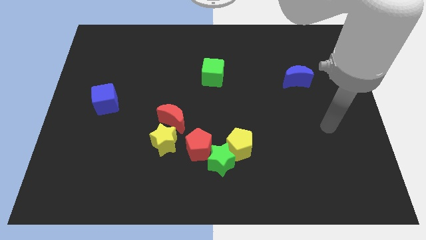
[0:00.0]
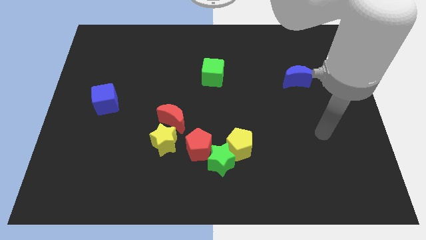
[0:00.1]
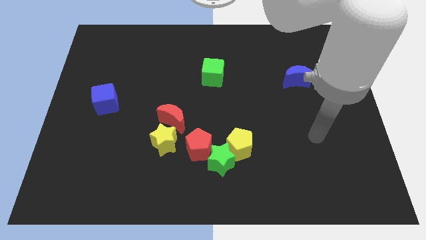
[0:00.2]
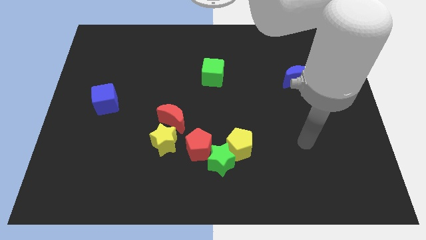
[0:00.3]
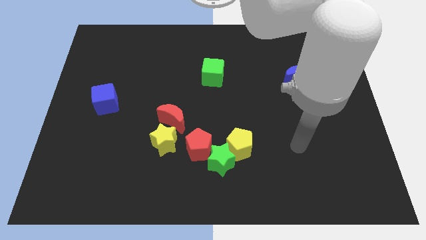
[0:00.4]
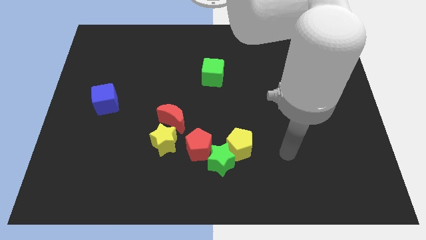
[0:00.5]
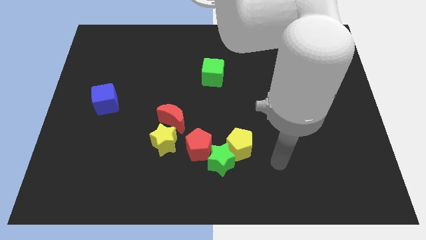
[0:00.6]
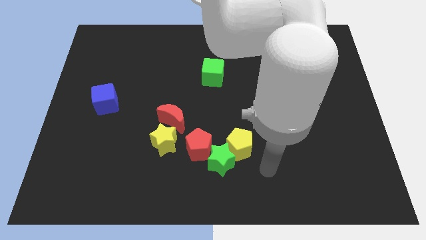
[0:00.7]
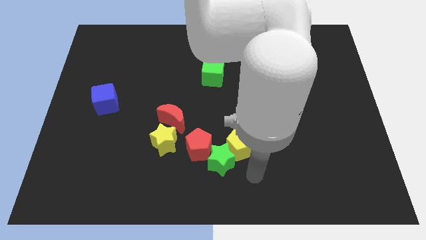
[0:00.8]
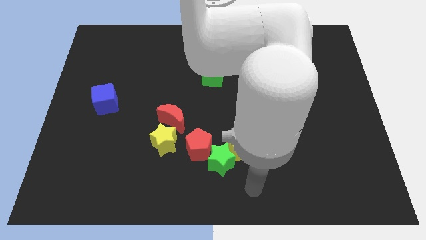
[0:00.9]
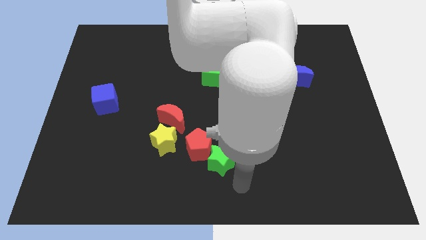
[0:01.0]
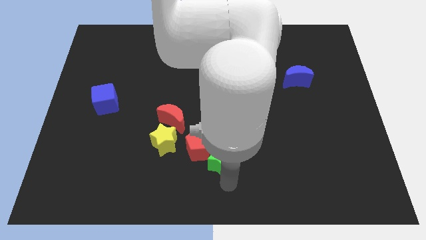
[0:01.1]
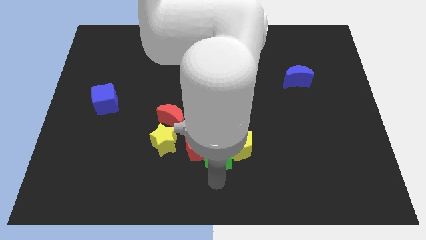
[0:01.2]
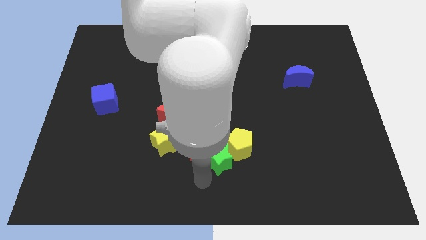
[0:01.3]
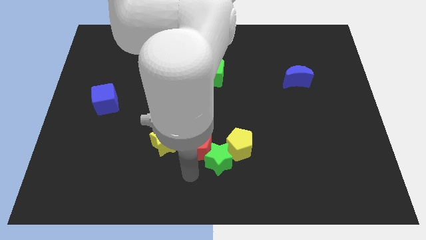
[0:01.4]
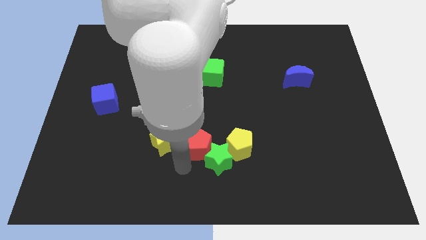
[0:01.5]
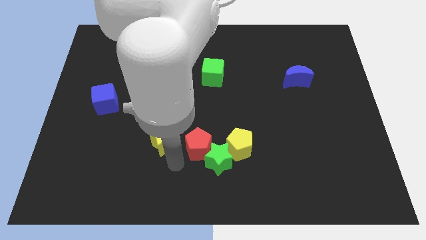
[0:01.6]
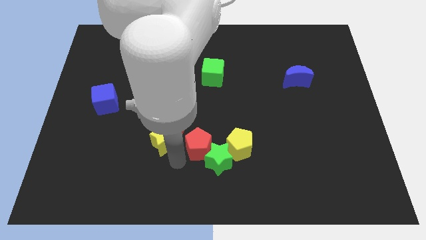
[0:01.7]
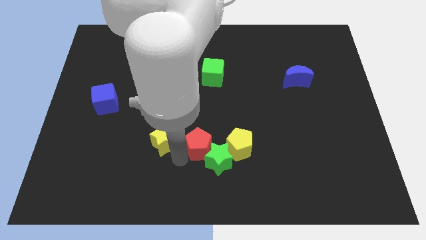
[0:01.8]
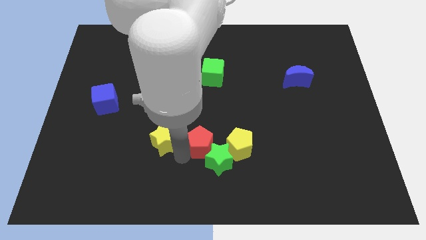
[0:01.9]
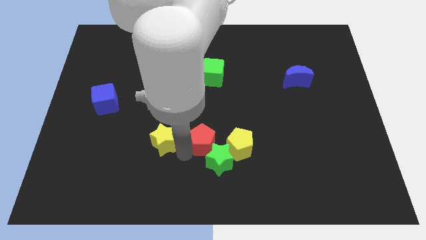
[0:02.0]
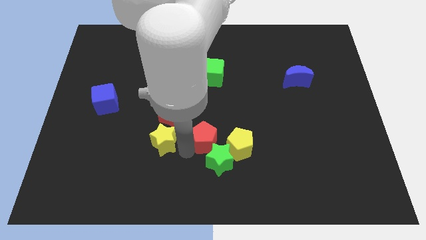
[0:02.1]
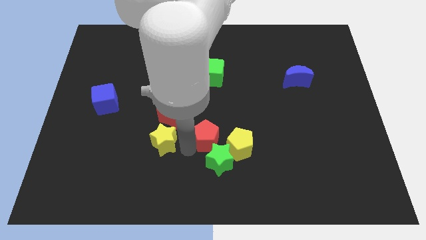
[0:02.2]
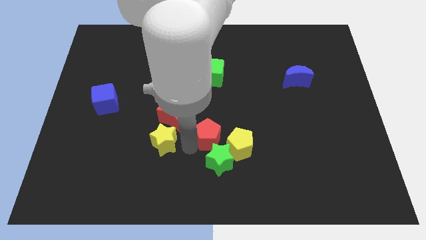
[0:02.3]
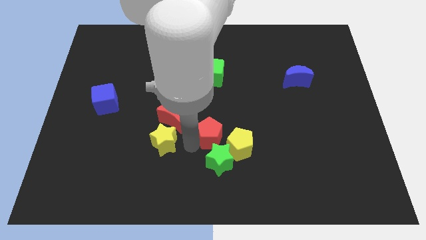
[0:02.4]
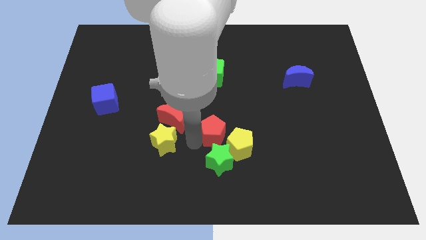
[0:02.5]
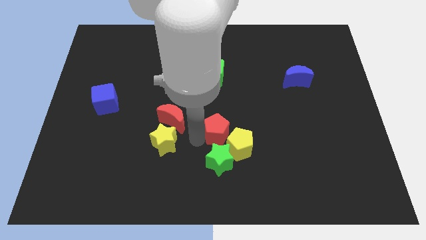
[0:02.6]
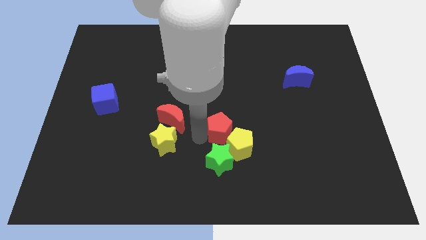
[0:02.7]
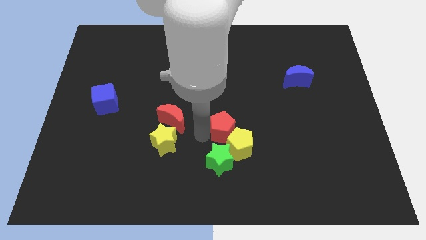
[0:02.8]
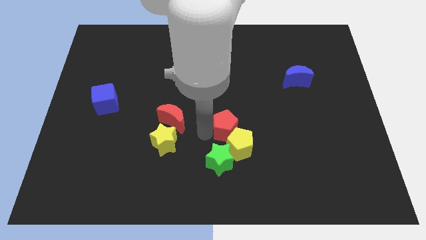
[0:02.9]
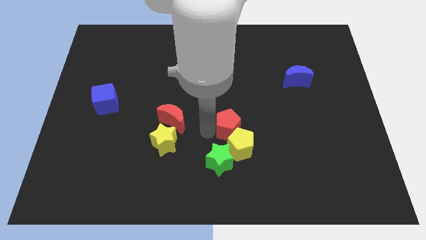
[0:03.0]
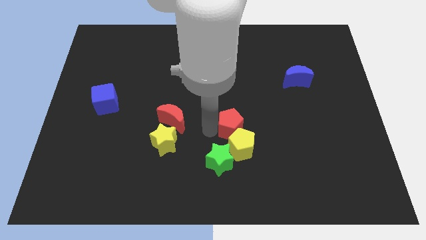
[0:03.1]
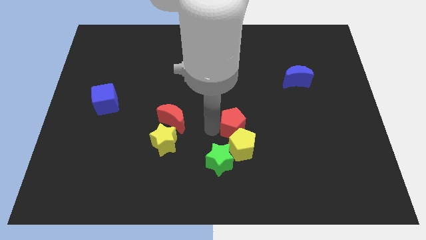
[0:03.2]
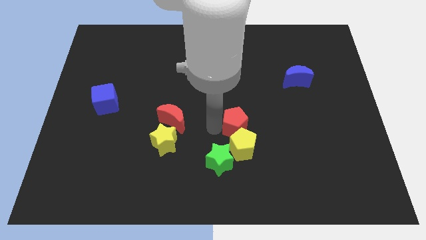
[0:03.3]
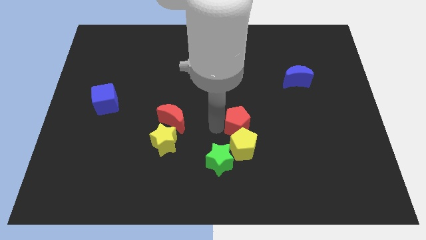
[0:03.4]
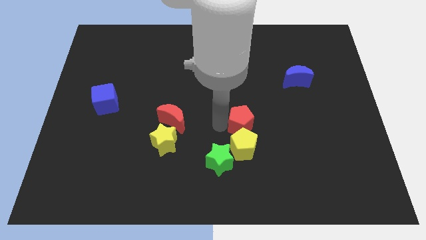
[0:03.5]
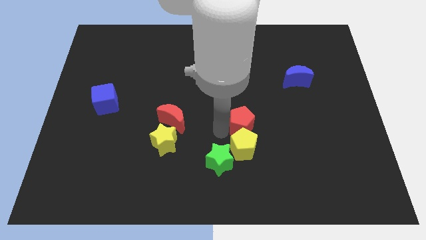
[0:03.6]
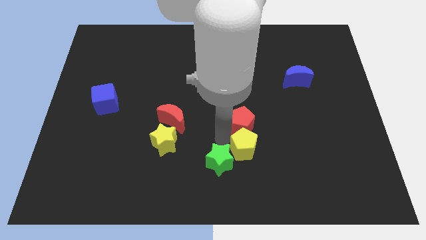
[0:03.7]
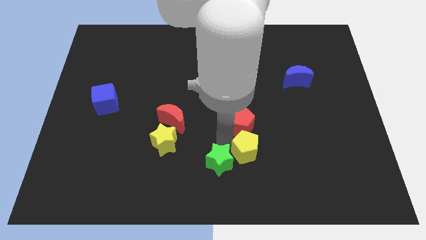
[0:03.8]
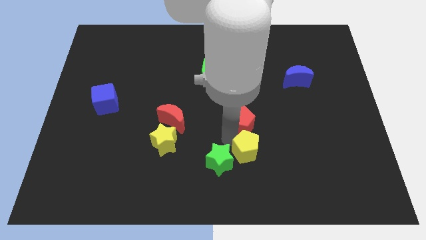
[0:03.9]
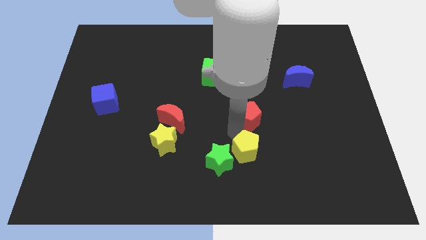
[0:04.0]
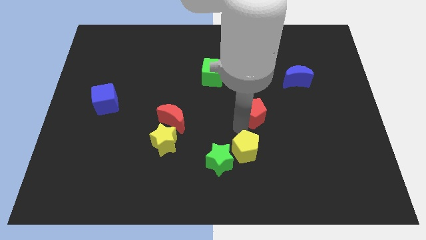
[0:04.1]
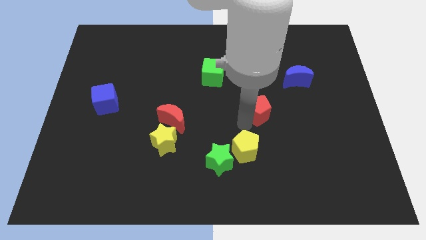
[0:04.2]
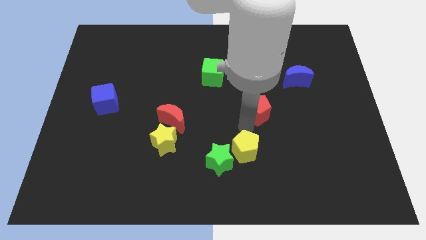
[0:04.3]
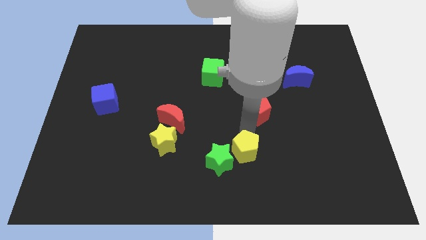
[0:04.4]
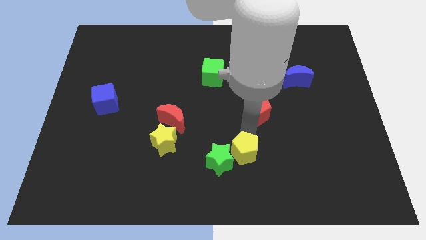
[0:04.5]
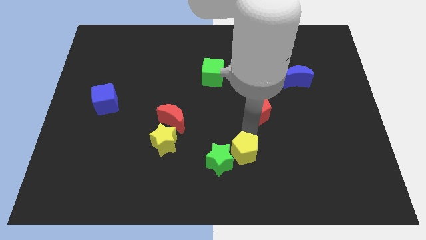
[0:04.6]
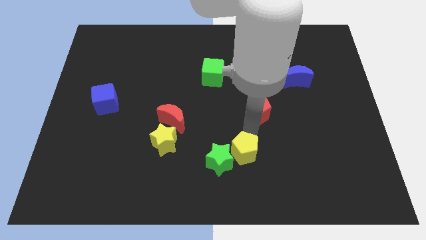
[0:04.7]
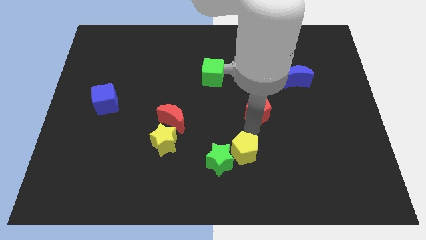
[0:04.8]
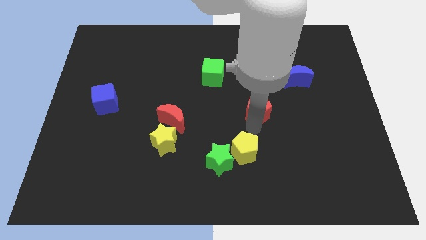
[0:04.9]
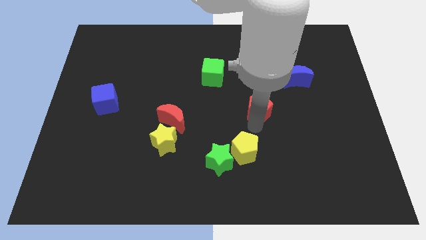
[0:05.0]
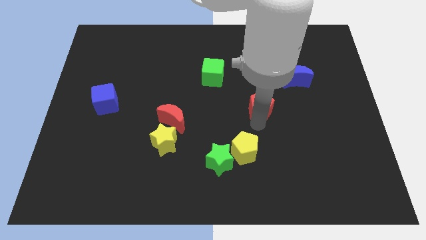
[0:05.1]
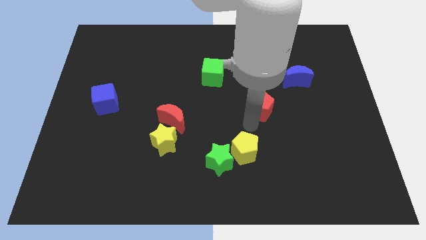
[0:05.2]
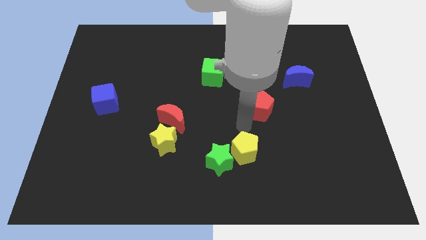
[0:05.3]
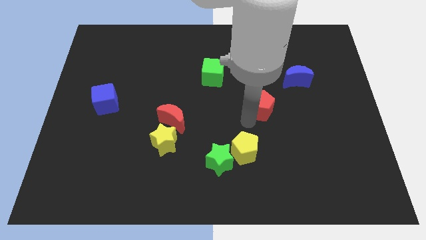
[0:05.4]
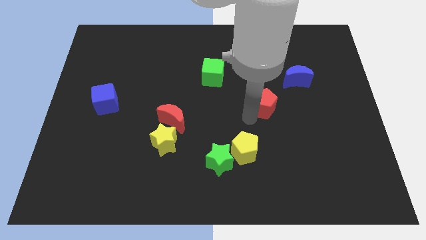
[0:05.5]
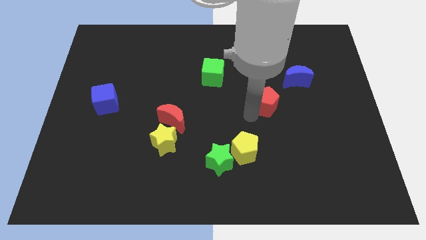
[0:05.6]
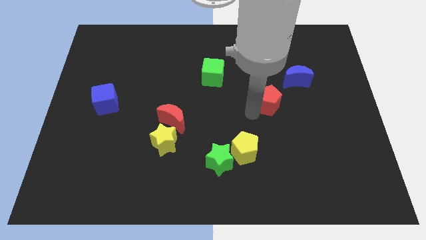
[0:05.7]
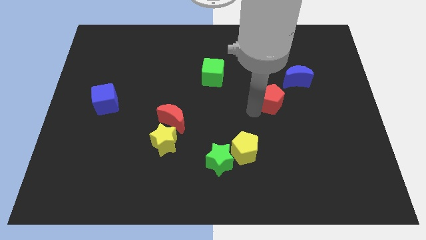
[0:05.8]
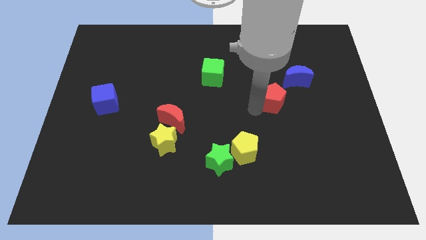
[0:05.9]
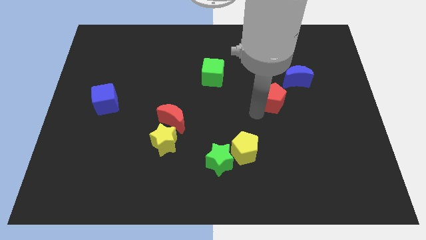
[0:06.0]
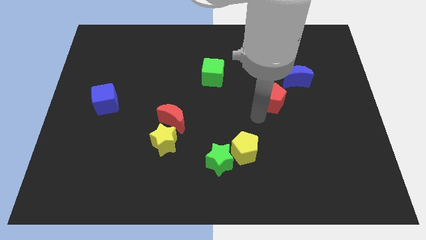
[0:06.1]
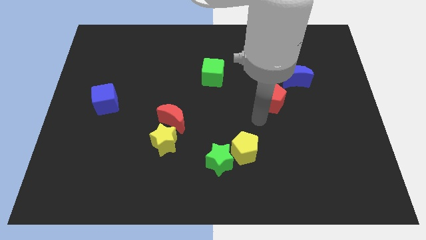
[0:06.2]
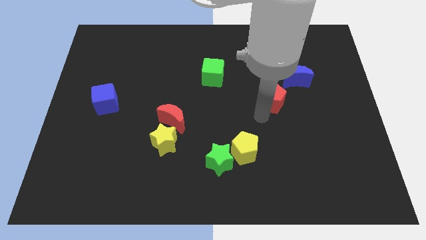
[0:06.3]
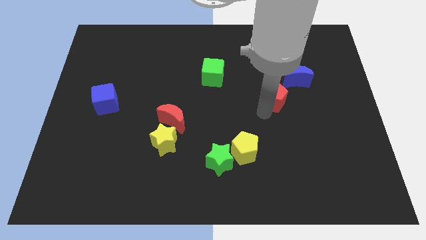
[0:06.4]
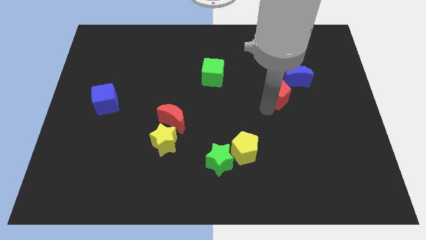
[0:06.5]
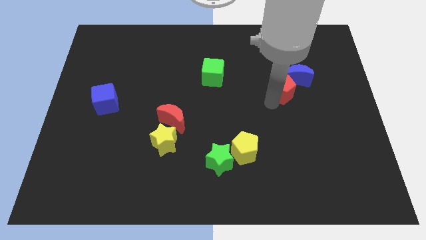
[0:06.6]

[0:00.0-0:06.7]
slide the red pentagon next to the blue moon

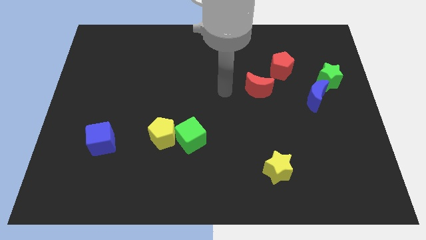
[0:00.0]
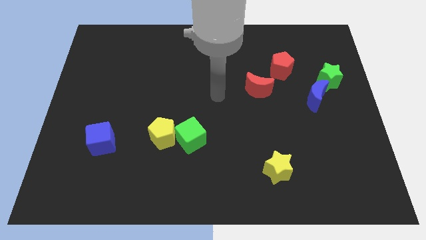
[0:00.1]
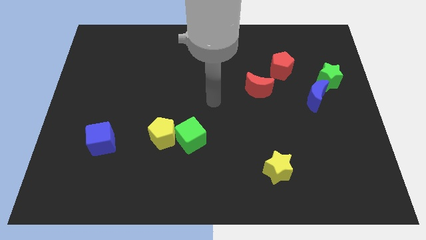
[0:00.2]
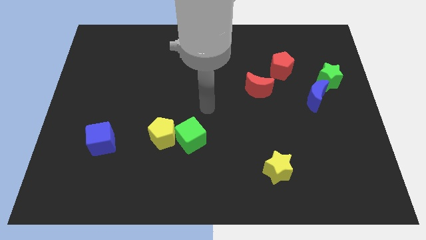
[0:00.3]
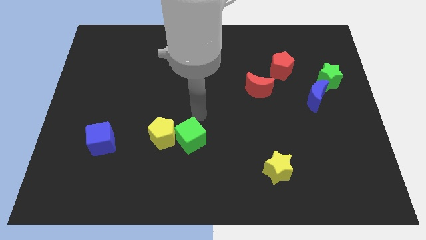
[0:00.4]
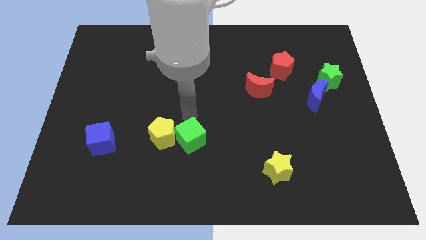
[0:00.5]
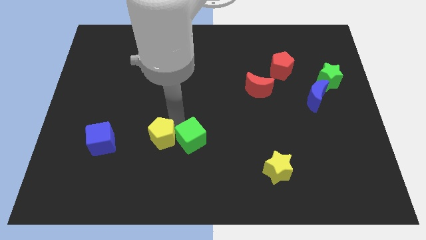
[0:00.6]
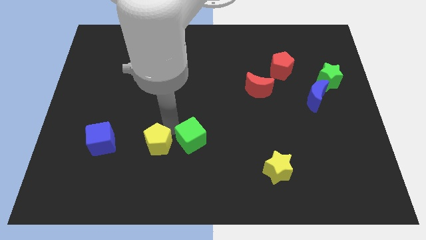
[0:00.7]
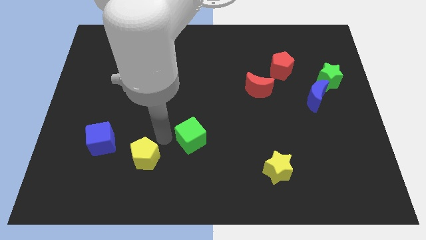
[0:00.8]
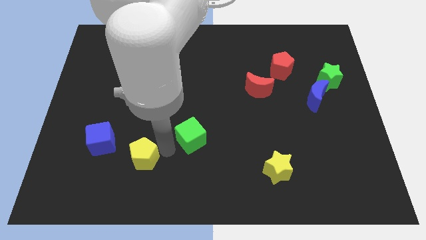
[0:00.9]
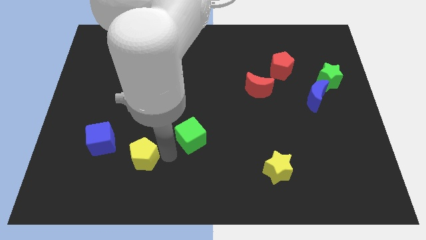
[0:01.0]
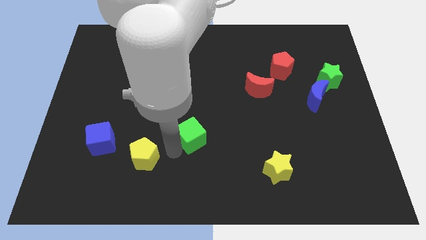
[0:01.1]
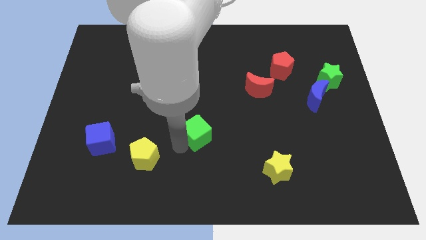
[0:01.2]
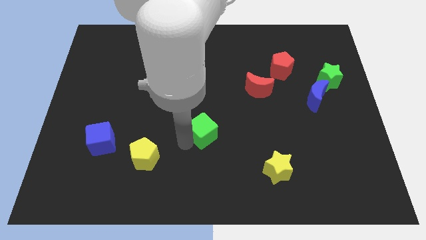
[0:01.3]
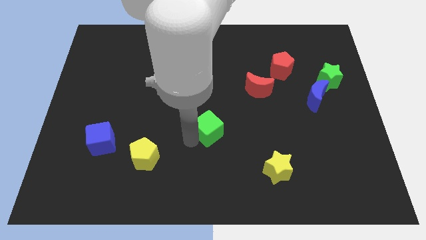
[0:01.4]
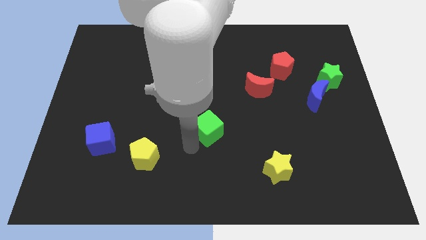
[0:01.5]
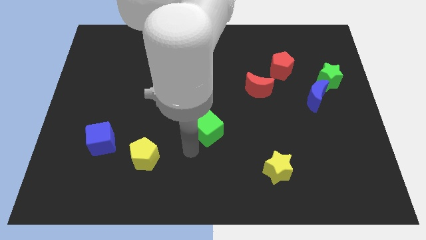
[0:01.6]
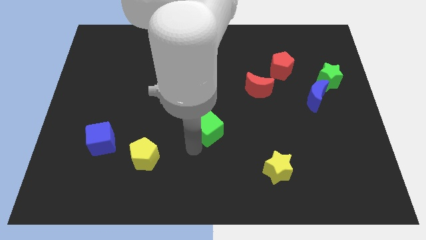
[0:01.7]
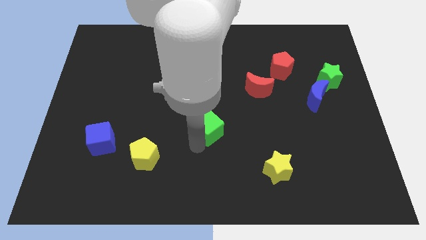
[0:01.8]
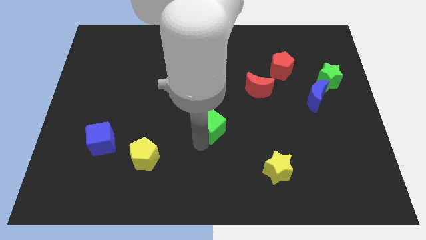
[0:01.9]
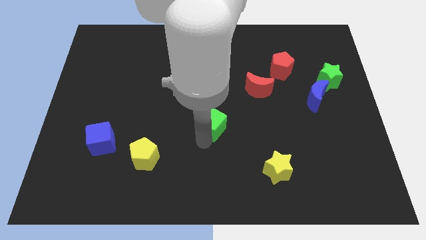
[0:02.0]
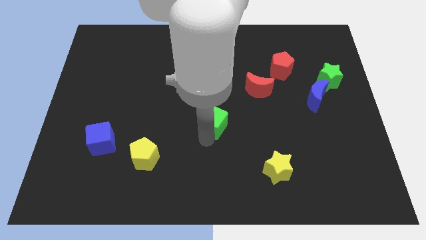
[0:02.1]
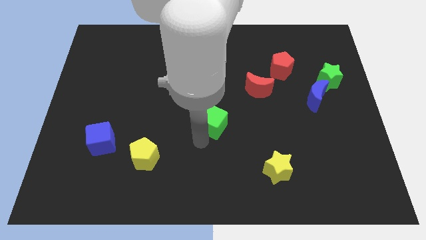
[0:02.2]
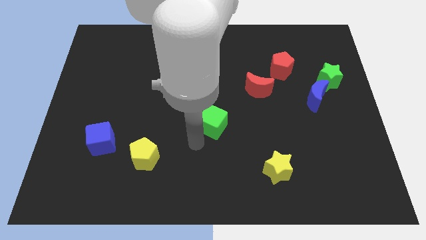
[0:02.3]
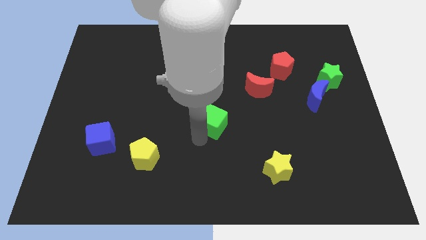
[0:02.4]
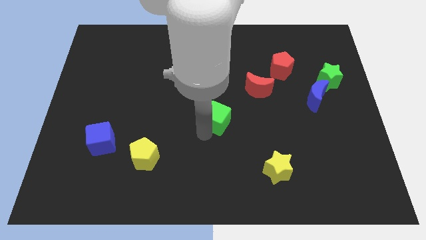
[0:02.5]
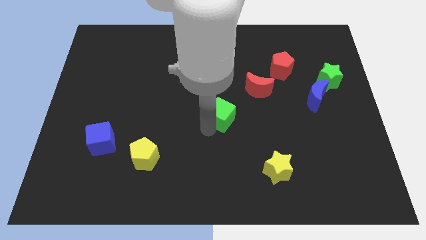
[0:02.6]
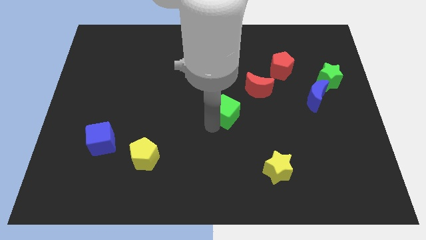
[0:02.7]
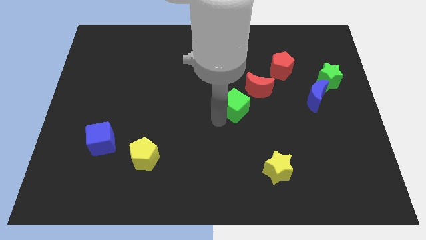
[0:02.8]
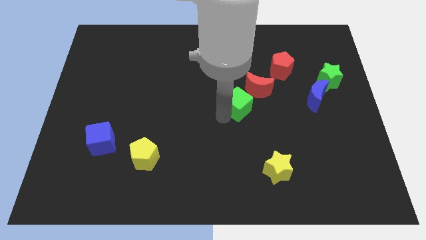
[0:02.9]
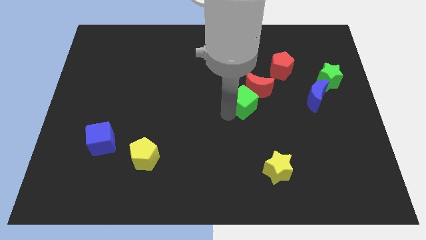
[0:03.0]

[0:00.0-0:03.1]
push the green cube towards the red moon
